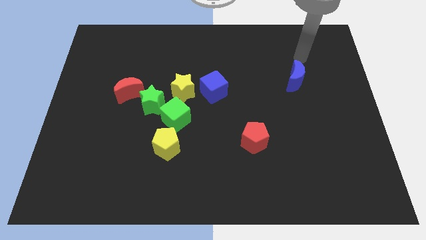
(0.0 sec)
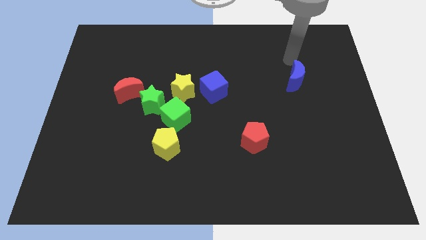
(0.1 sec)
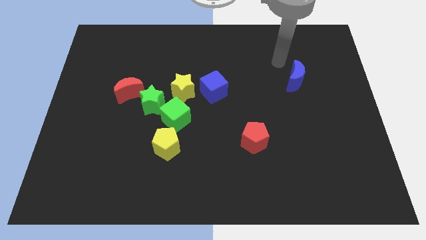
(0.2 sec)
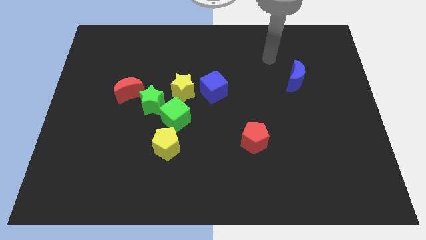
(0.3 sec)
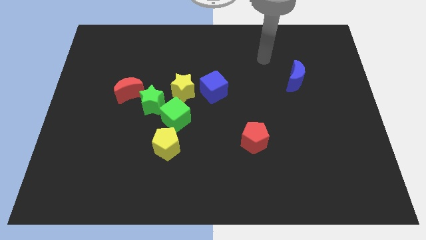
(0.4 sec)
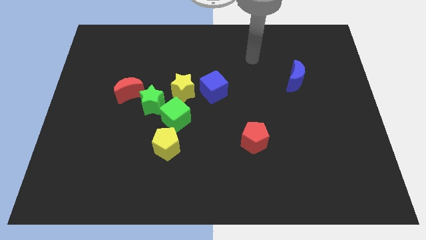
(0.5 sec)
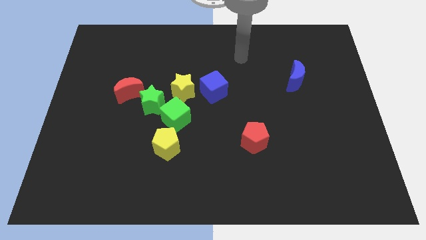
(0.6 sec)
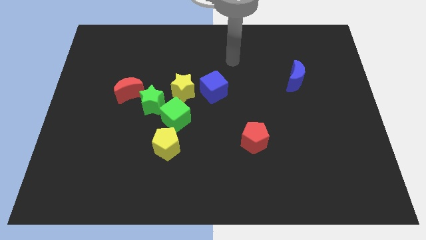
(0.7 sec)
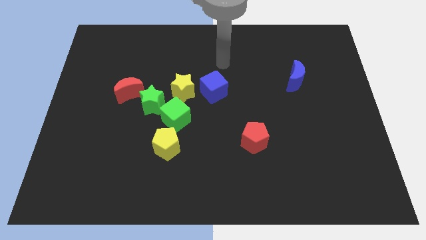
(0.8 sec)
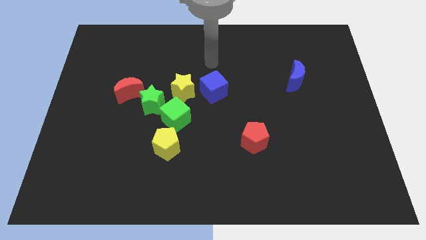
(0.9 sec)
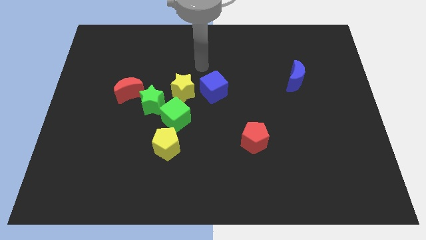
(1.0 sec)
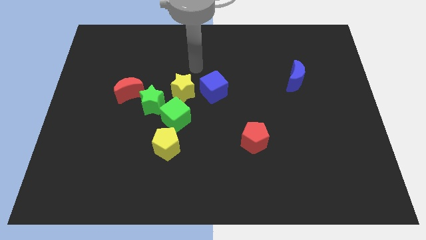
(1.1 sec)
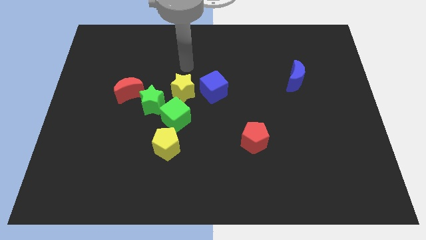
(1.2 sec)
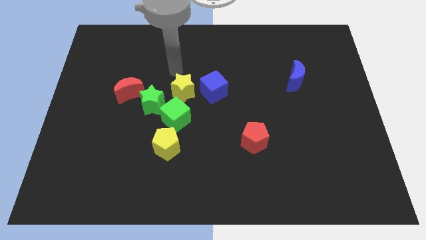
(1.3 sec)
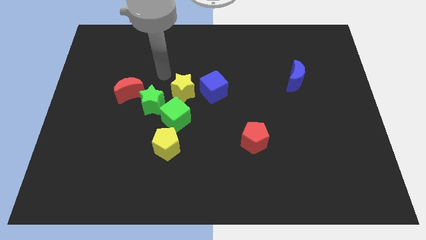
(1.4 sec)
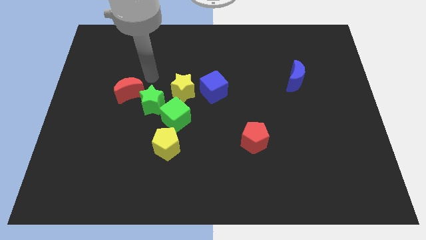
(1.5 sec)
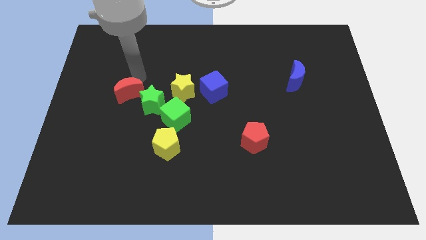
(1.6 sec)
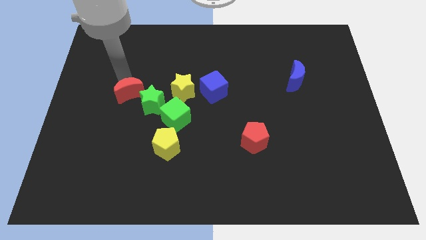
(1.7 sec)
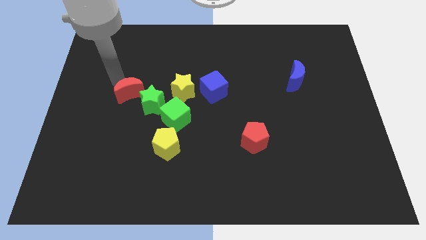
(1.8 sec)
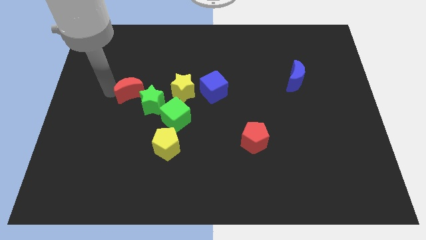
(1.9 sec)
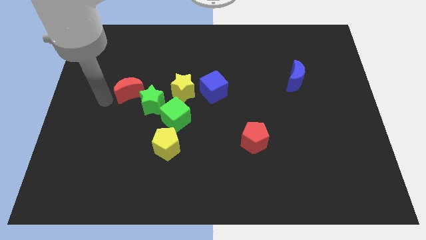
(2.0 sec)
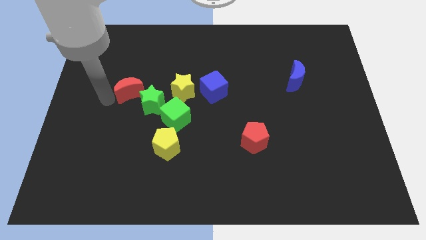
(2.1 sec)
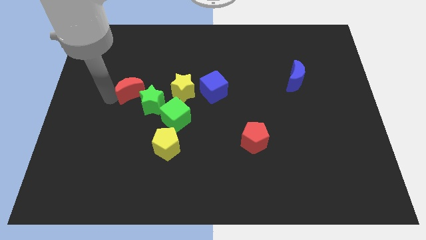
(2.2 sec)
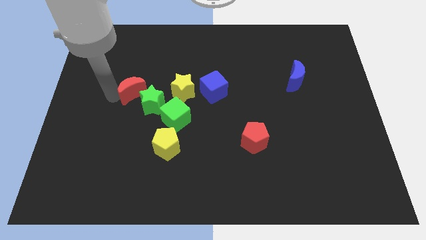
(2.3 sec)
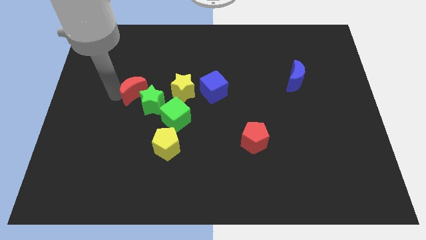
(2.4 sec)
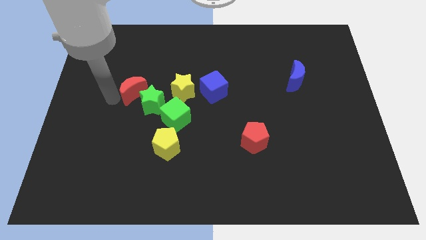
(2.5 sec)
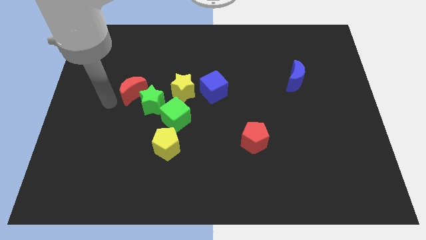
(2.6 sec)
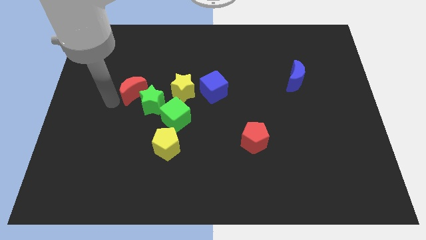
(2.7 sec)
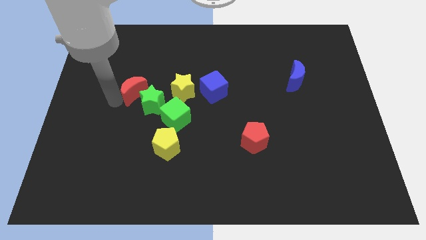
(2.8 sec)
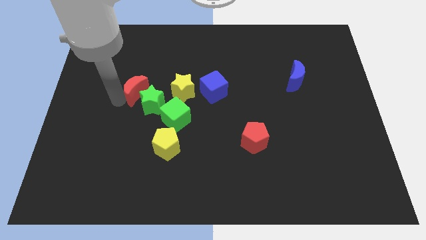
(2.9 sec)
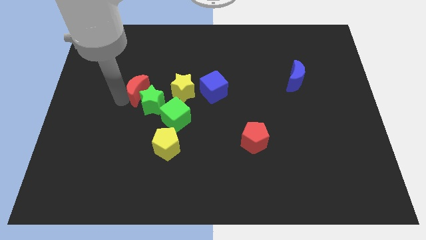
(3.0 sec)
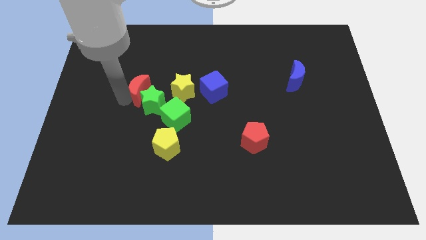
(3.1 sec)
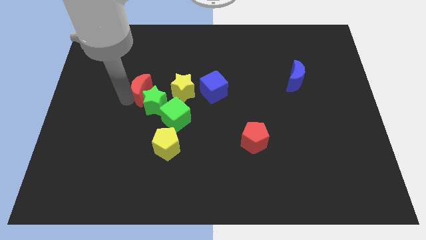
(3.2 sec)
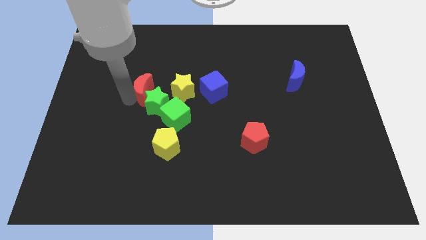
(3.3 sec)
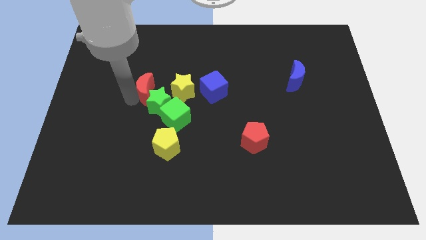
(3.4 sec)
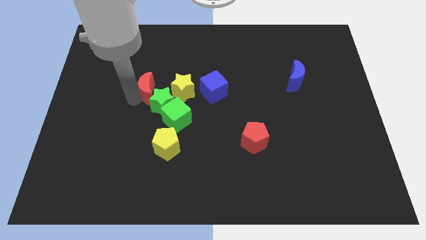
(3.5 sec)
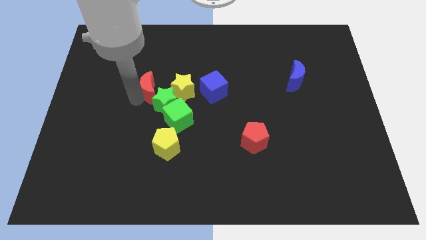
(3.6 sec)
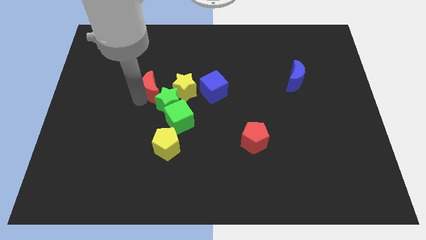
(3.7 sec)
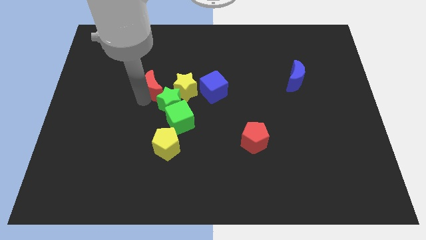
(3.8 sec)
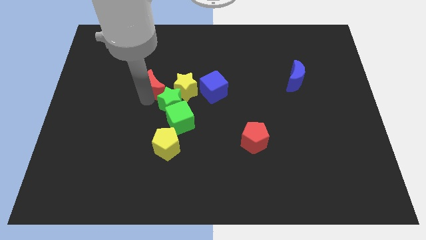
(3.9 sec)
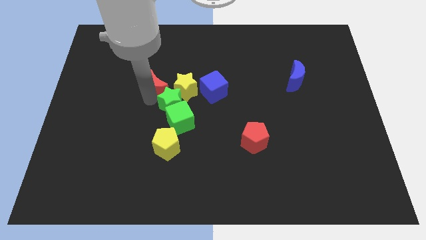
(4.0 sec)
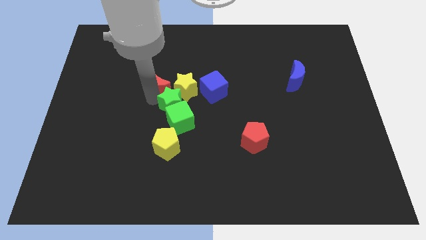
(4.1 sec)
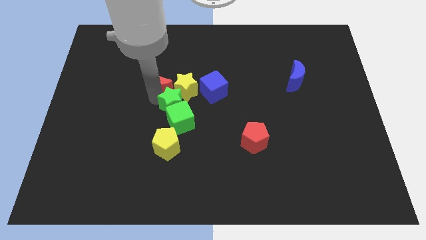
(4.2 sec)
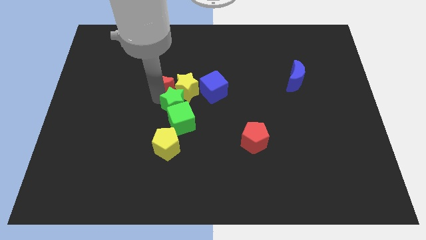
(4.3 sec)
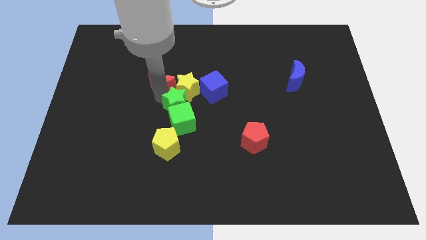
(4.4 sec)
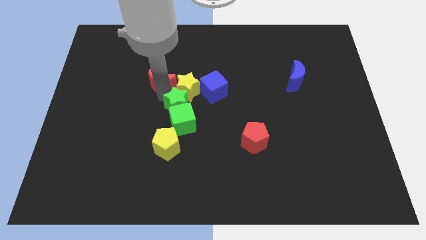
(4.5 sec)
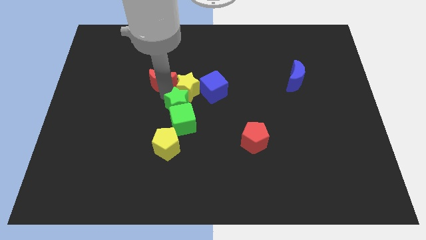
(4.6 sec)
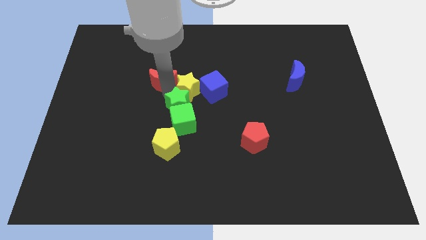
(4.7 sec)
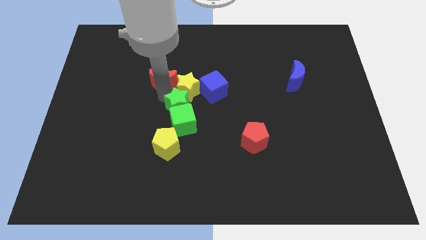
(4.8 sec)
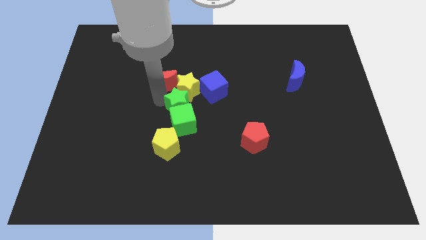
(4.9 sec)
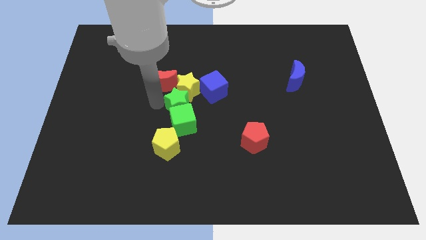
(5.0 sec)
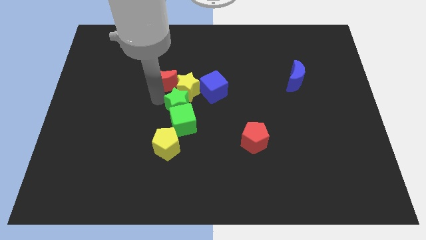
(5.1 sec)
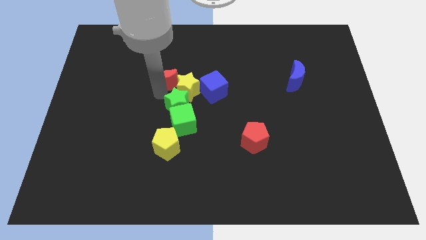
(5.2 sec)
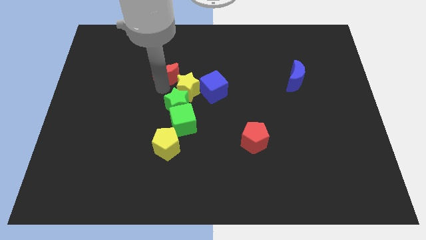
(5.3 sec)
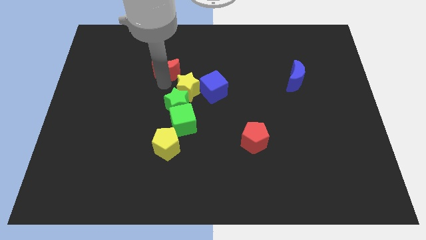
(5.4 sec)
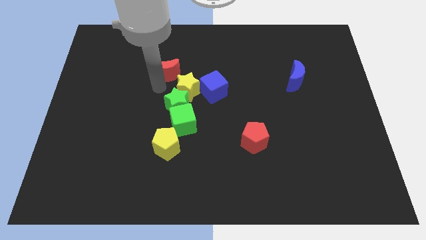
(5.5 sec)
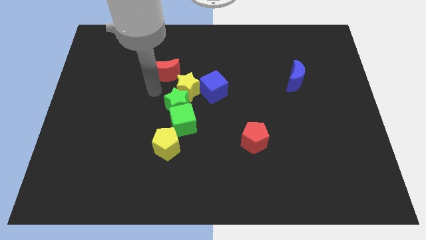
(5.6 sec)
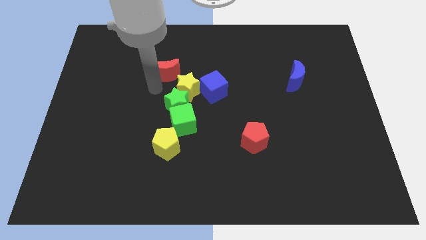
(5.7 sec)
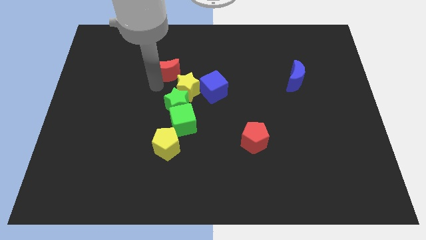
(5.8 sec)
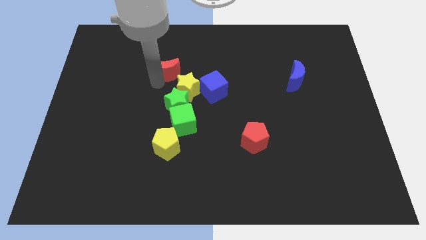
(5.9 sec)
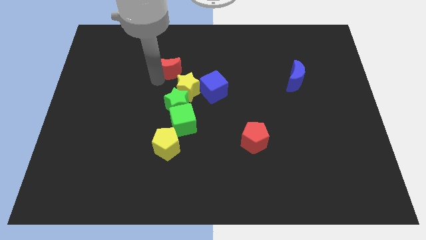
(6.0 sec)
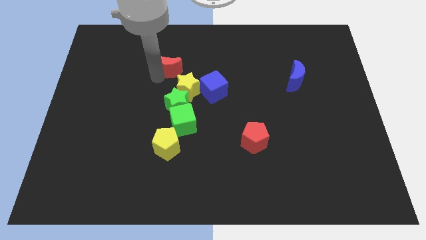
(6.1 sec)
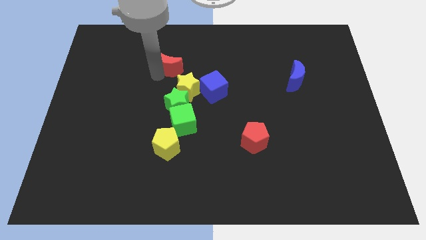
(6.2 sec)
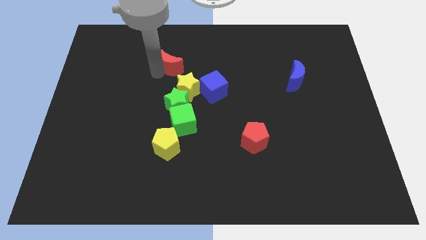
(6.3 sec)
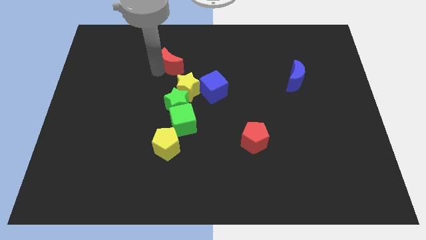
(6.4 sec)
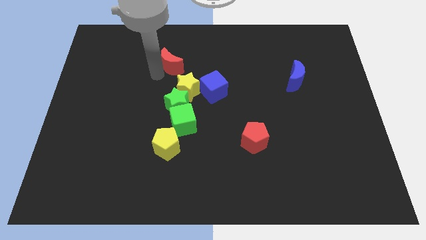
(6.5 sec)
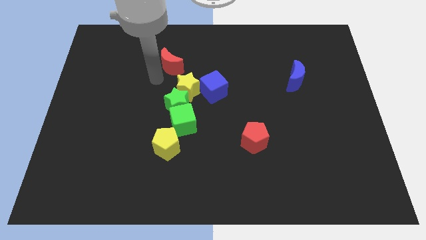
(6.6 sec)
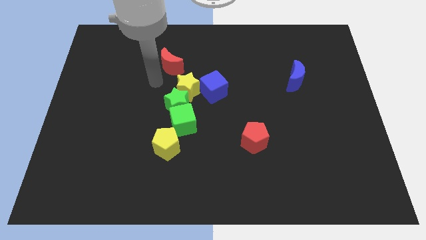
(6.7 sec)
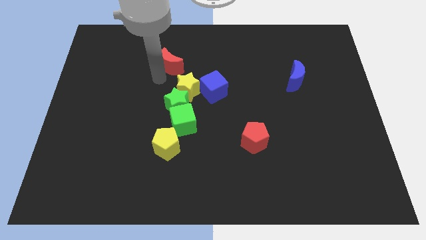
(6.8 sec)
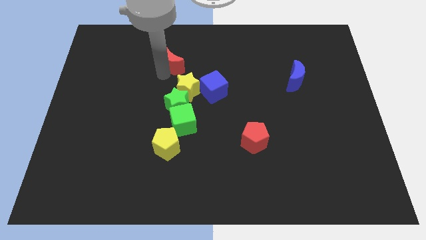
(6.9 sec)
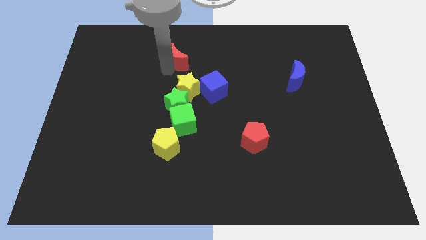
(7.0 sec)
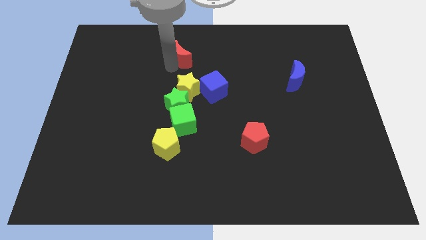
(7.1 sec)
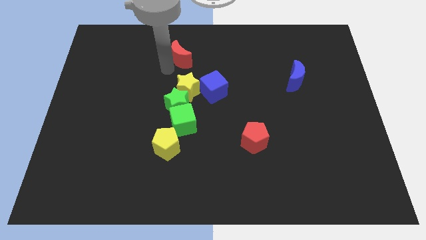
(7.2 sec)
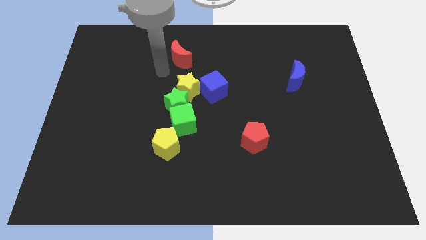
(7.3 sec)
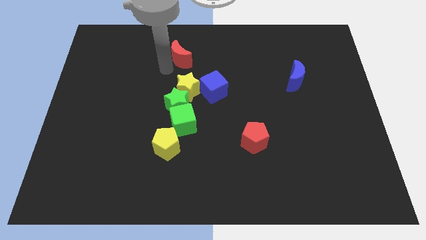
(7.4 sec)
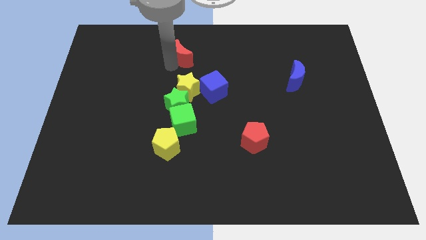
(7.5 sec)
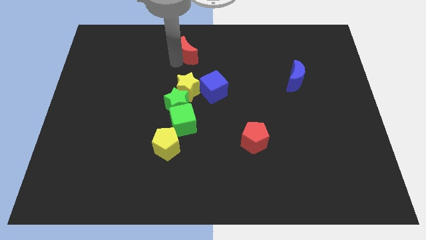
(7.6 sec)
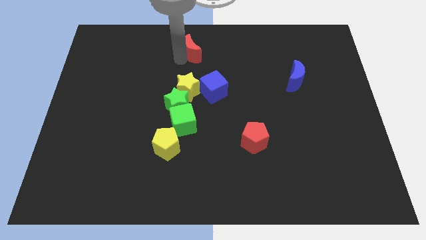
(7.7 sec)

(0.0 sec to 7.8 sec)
move the red moon to the top side
